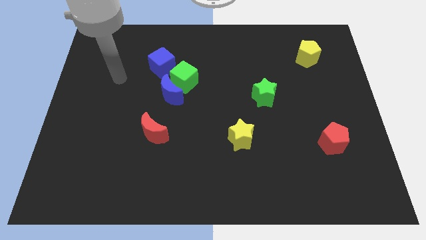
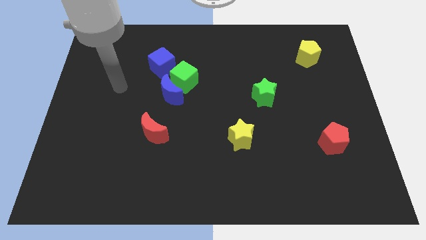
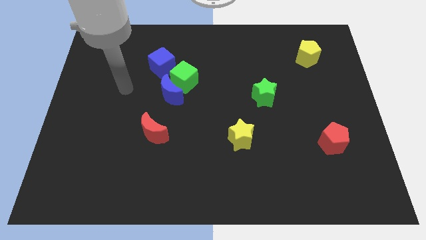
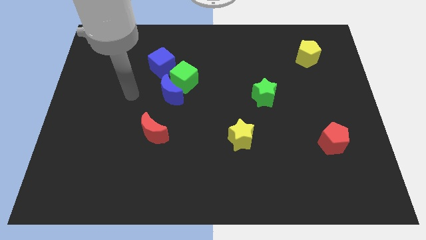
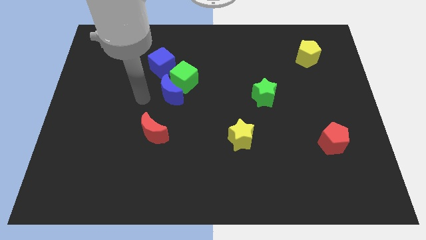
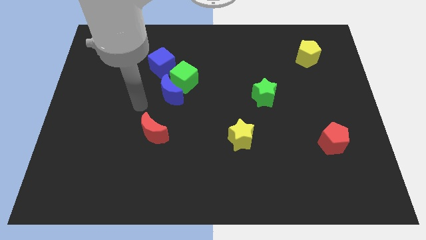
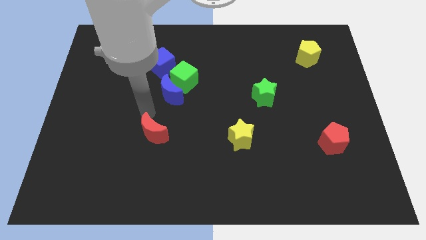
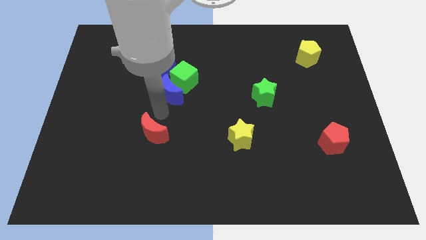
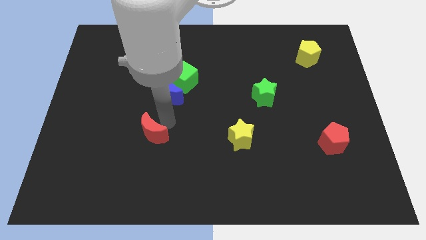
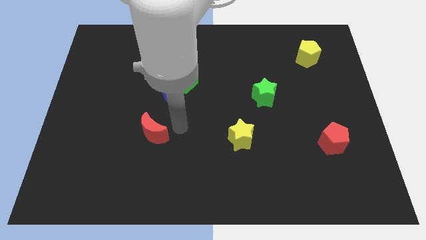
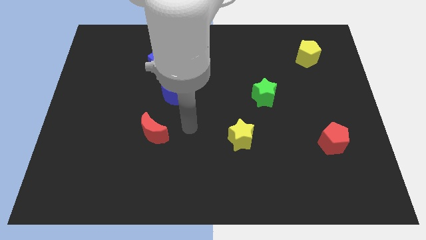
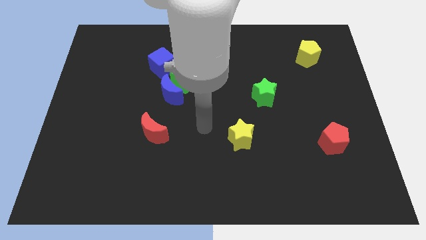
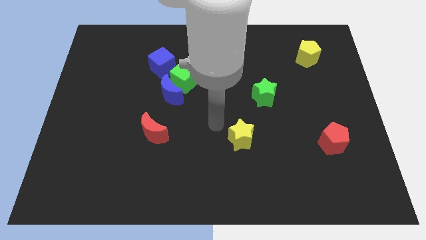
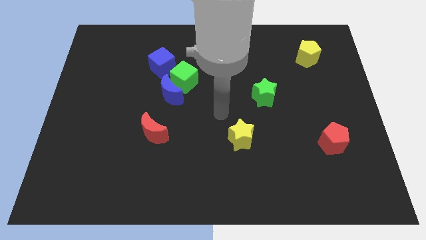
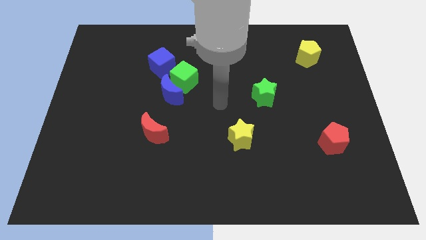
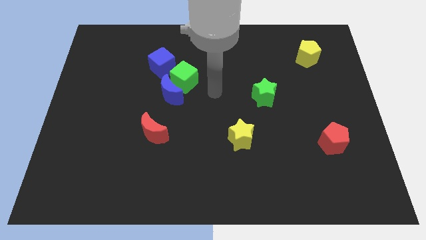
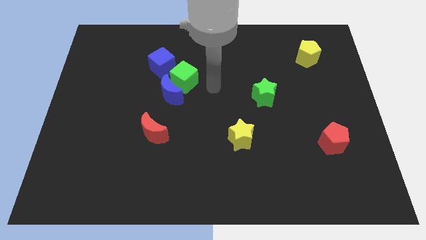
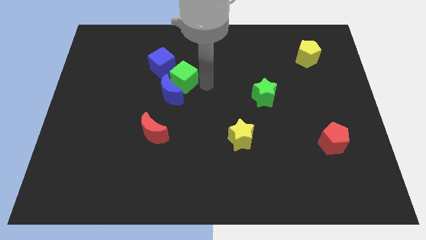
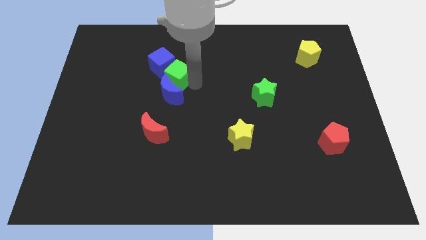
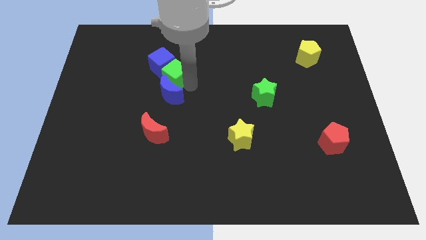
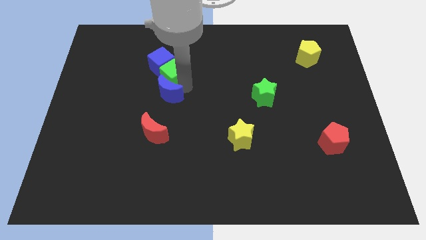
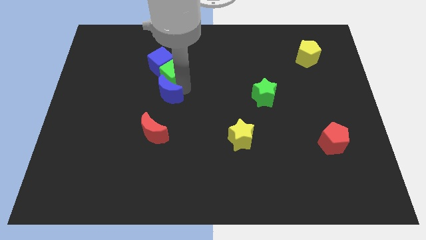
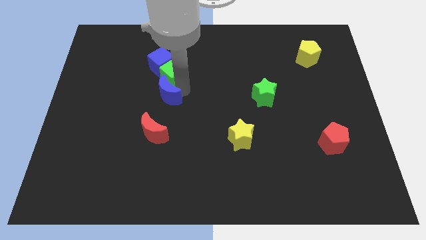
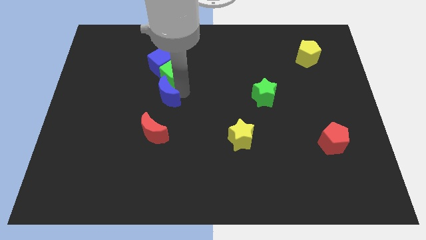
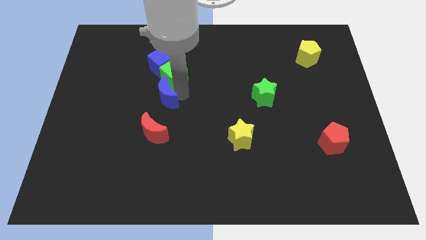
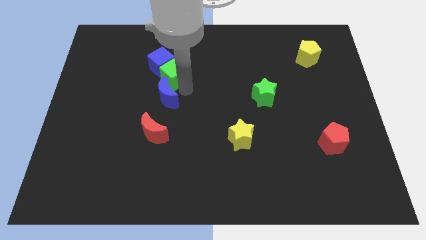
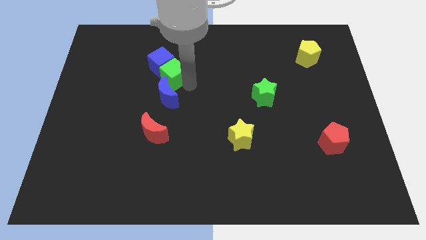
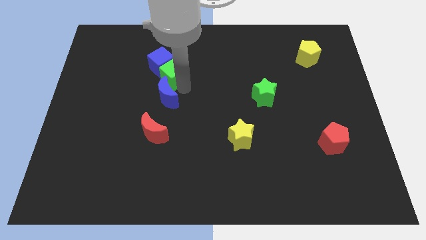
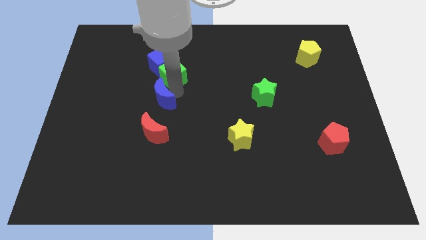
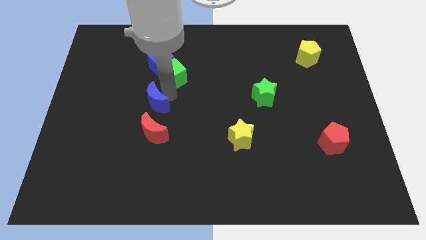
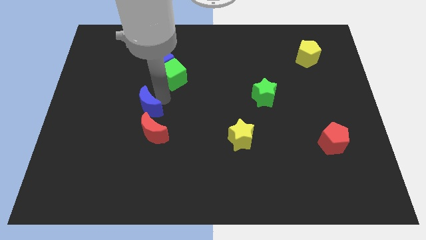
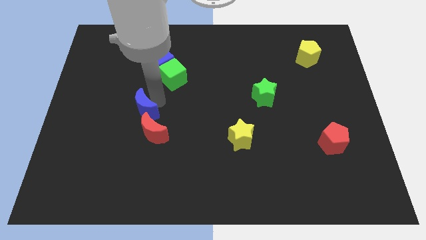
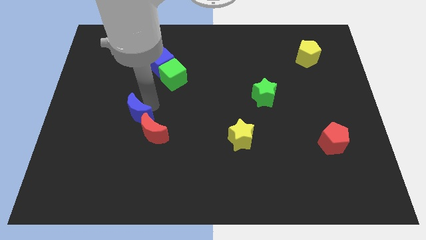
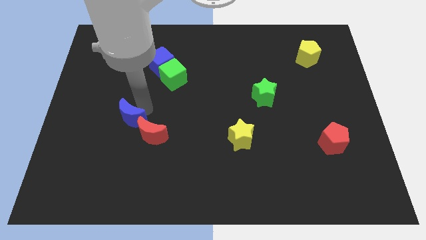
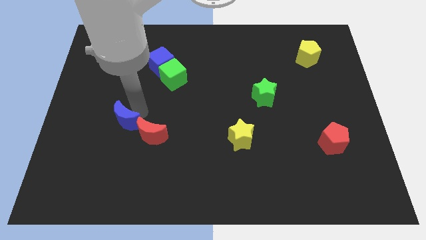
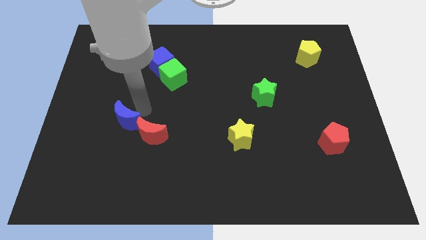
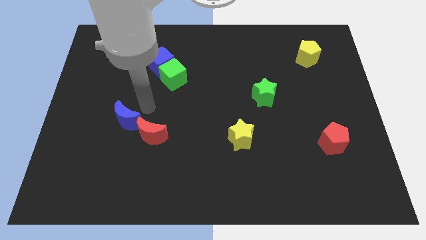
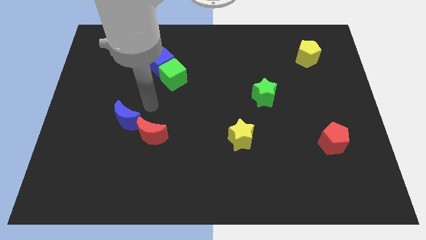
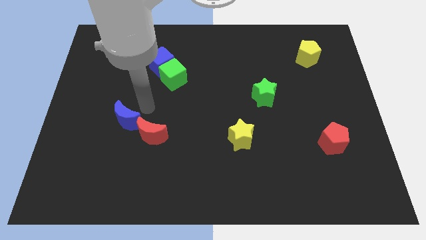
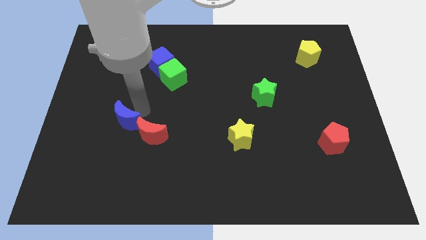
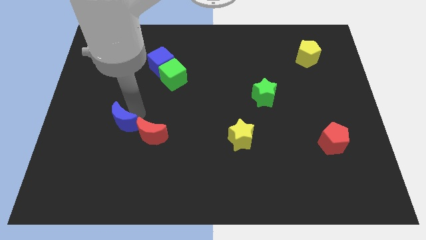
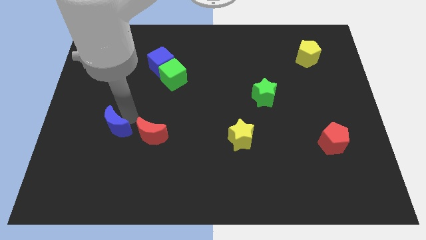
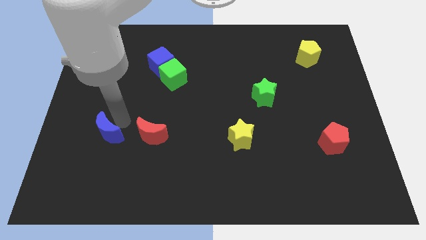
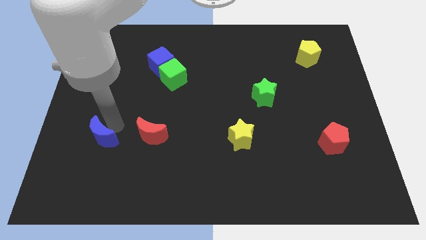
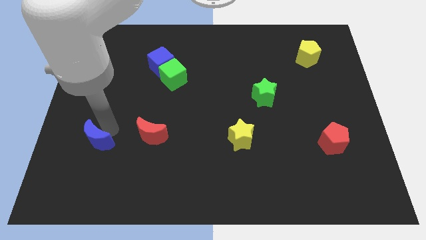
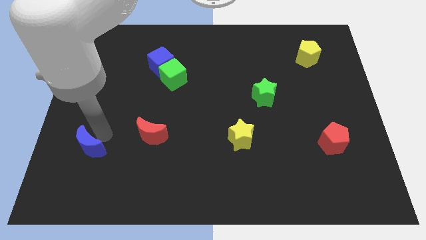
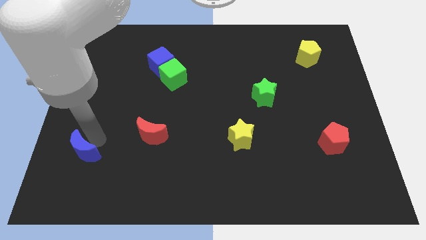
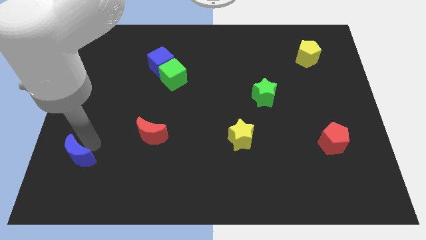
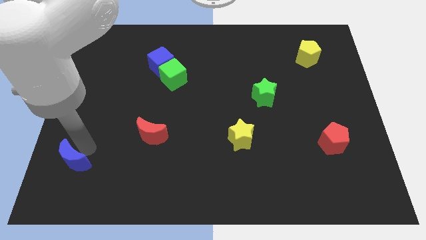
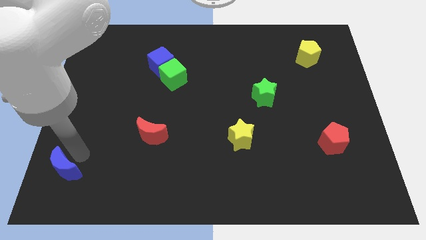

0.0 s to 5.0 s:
slide the blue moon to the bottom left

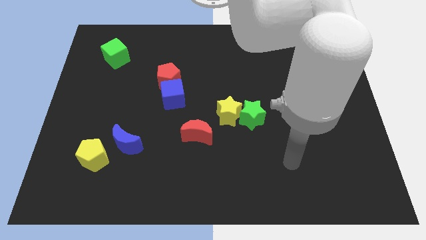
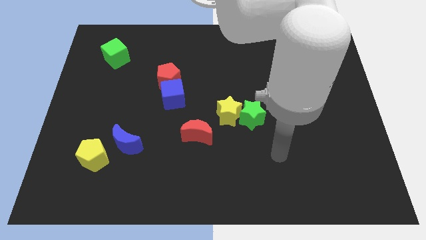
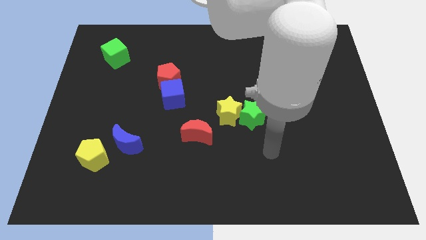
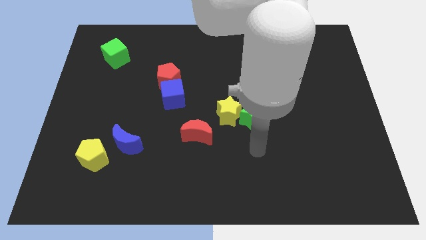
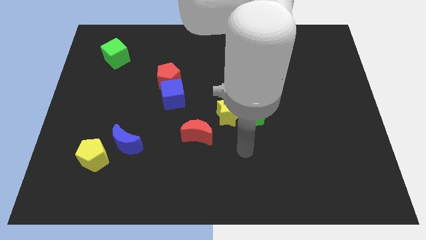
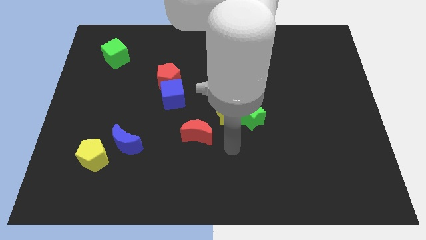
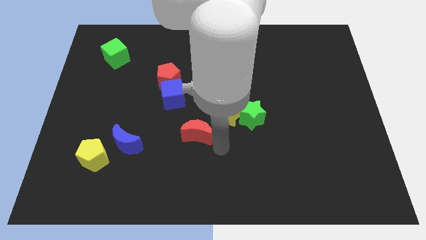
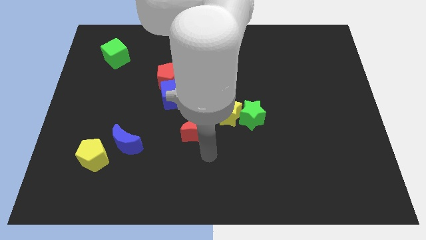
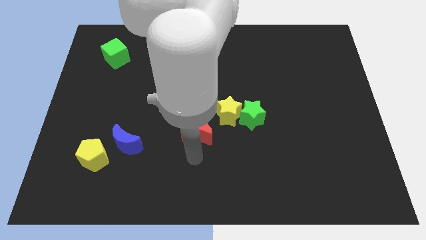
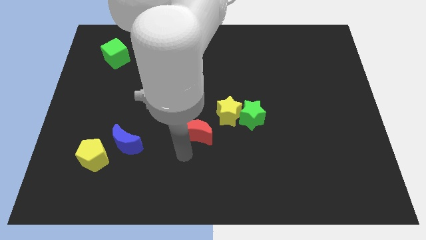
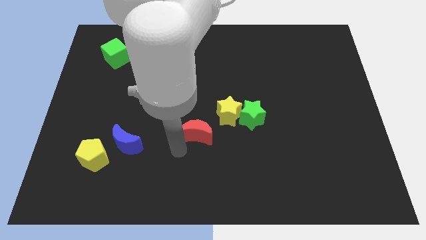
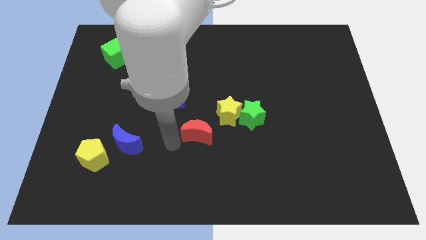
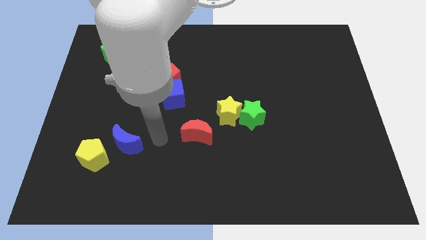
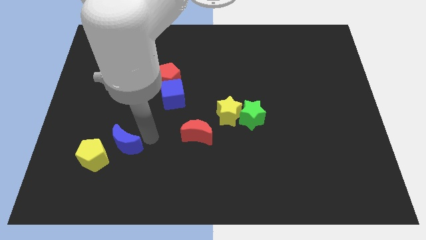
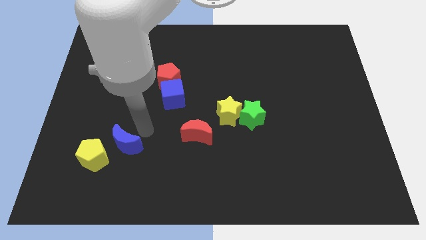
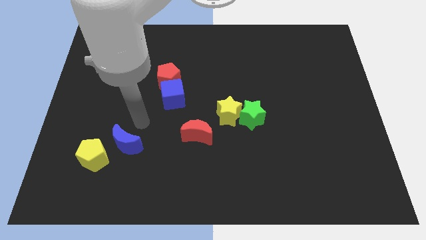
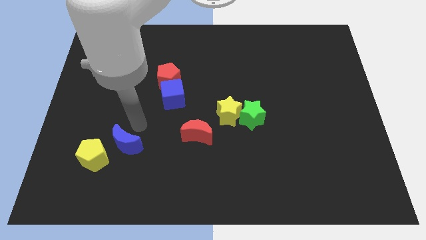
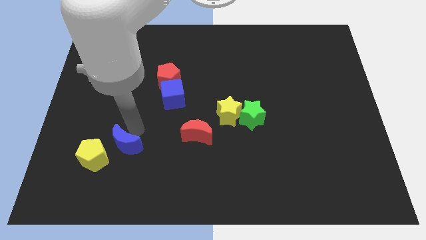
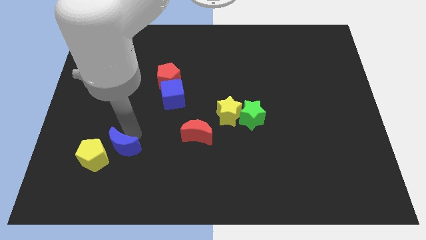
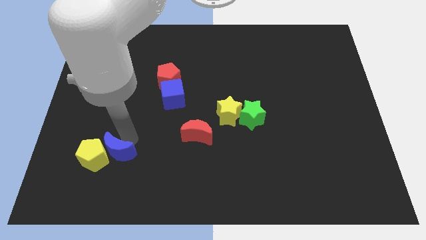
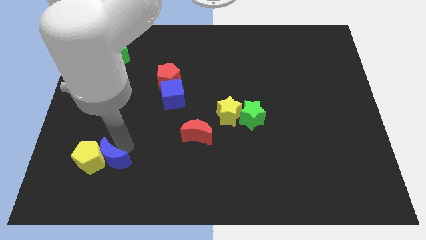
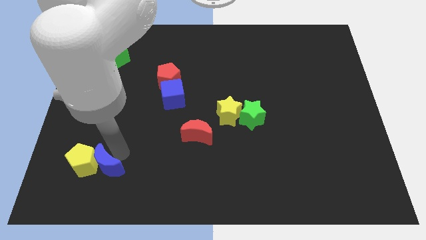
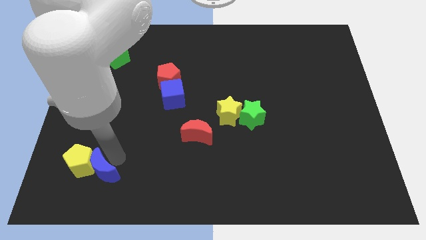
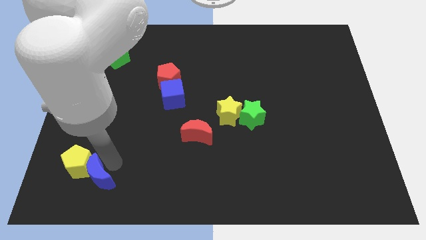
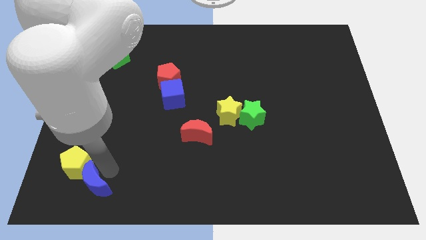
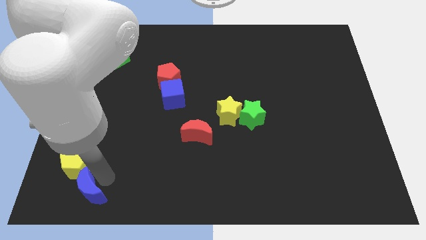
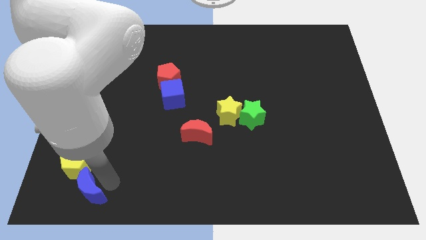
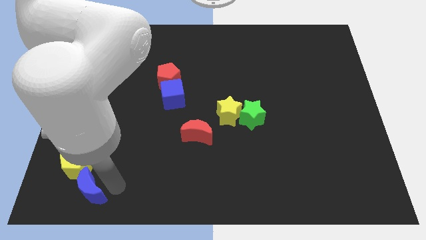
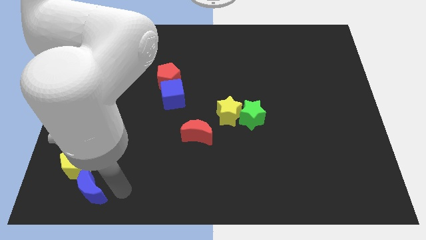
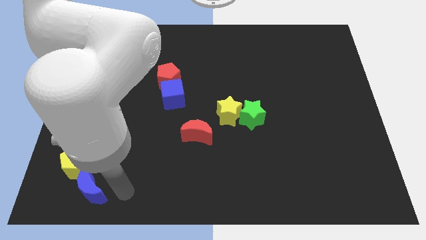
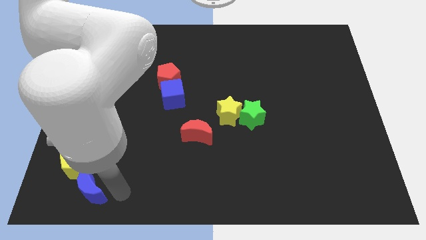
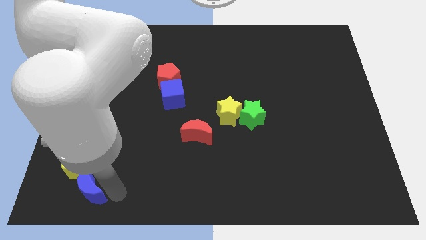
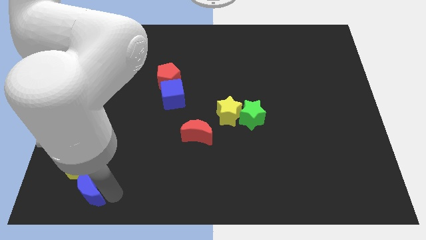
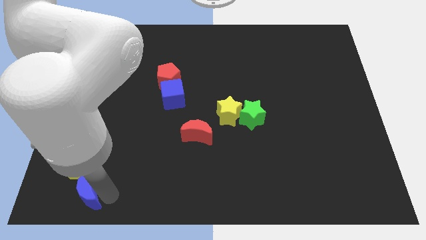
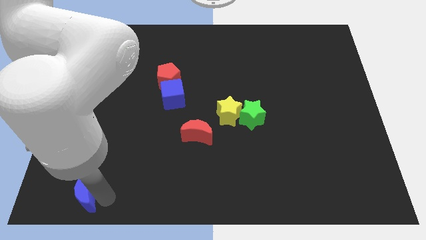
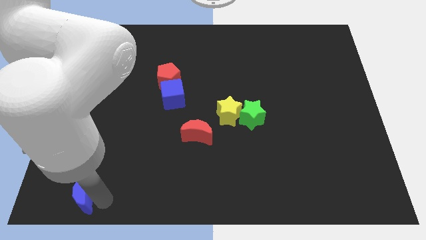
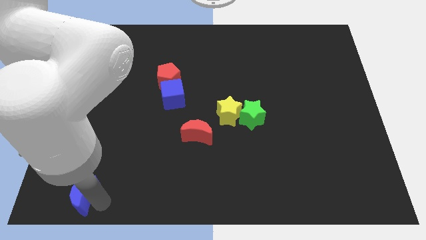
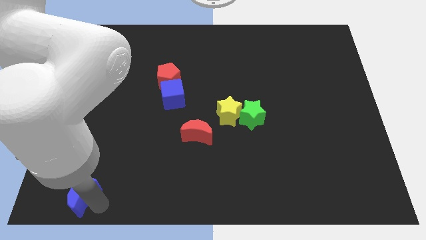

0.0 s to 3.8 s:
push the blue moon to the lower left corner
